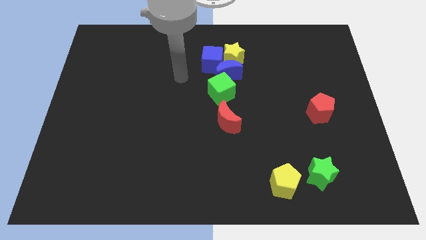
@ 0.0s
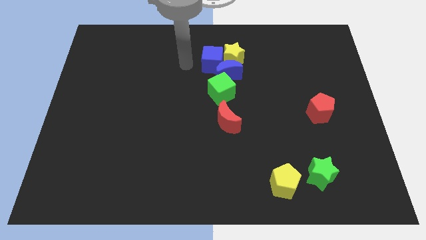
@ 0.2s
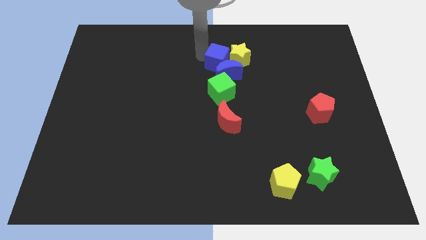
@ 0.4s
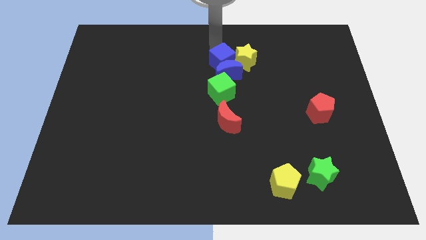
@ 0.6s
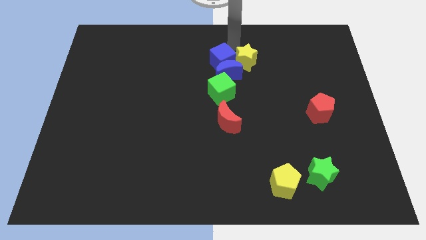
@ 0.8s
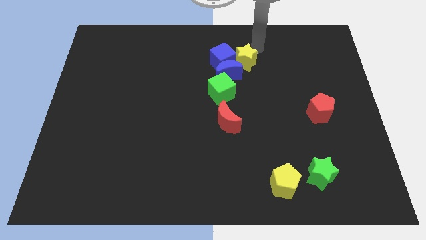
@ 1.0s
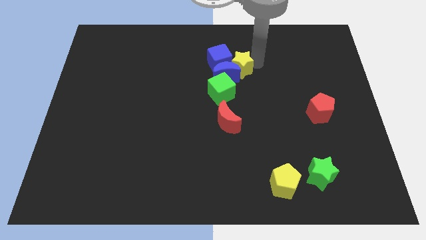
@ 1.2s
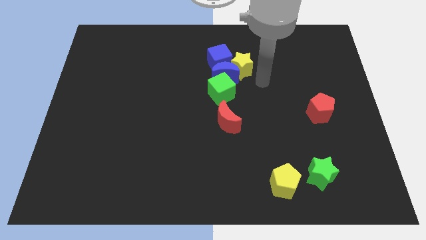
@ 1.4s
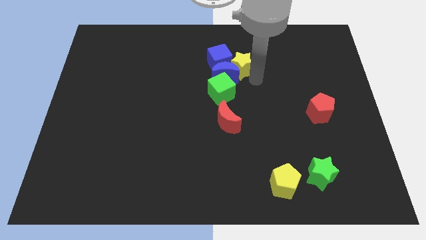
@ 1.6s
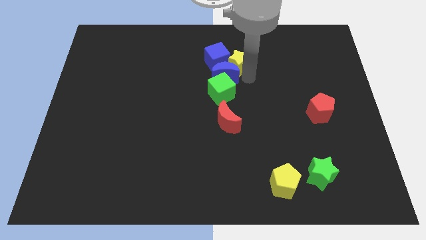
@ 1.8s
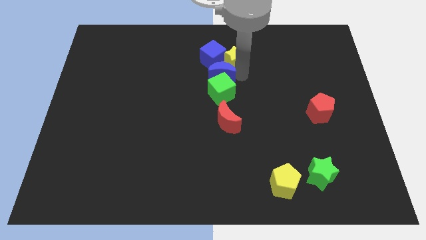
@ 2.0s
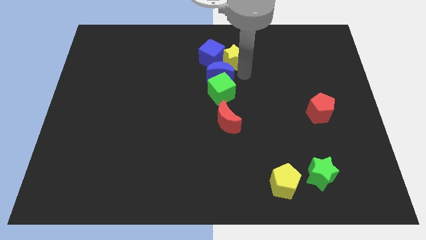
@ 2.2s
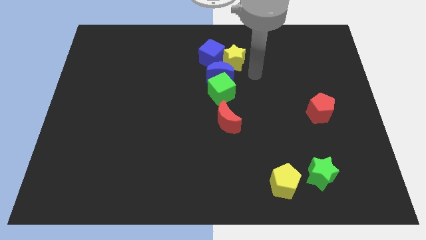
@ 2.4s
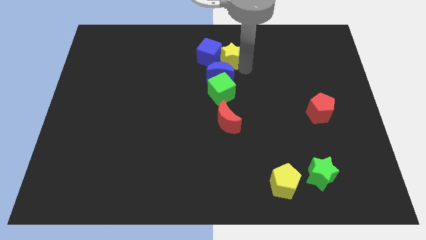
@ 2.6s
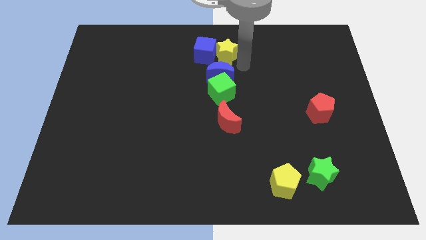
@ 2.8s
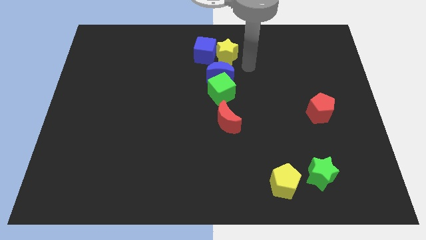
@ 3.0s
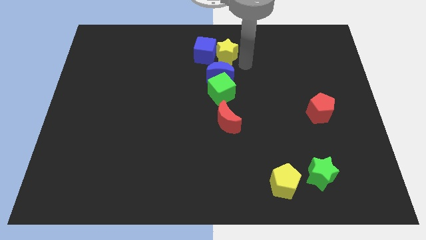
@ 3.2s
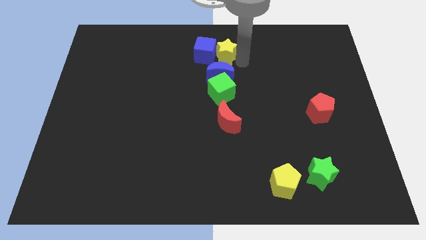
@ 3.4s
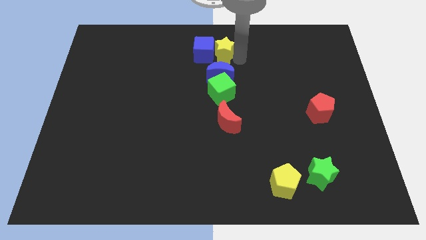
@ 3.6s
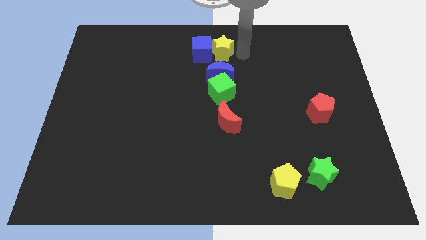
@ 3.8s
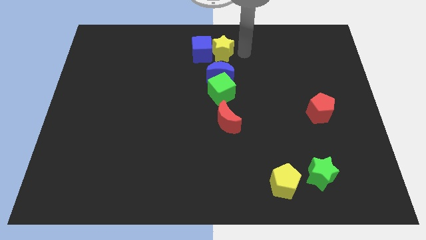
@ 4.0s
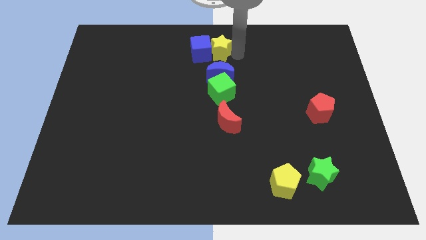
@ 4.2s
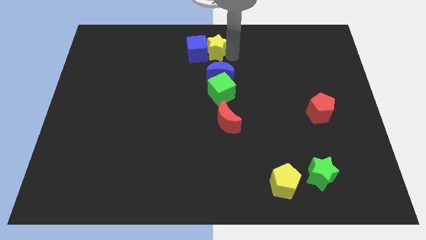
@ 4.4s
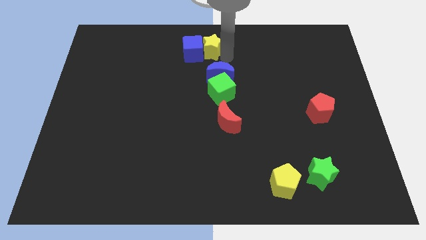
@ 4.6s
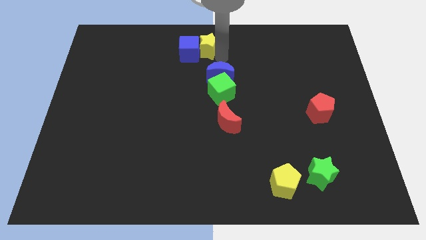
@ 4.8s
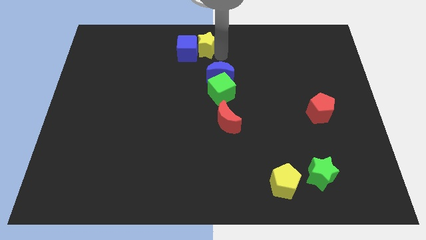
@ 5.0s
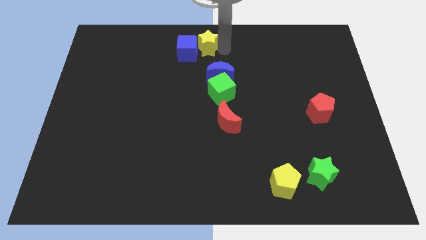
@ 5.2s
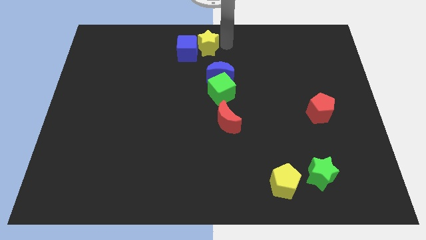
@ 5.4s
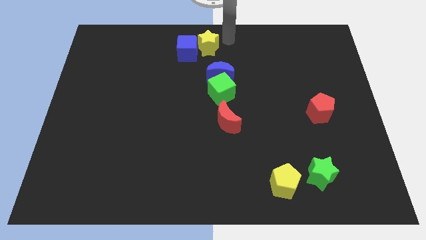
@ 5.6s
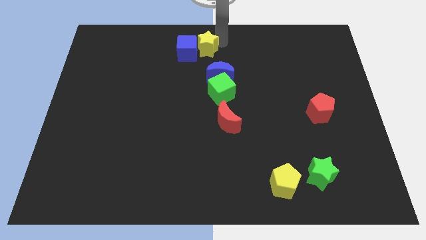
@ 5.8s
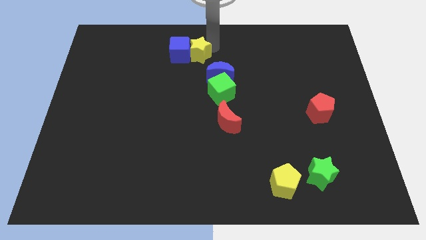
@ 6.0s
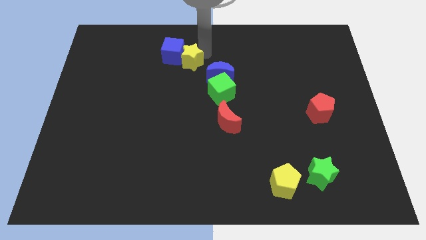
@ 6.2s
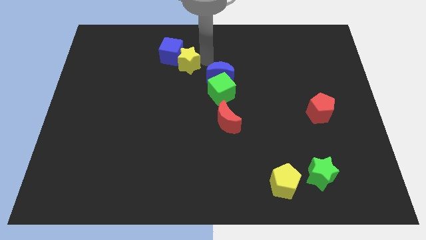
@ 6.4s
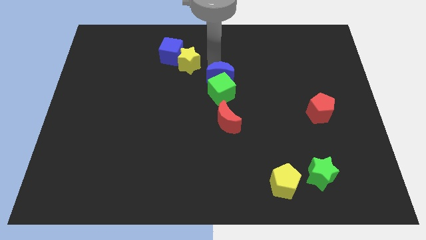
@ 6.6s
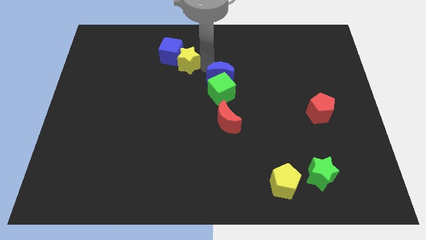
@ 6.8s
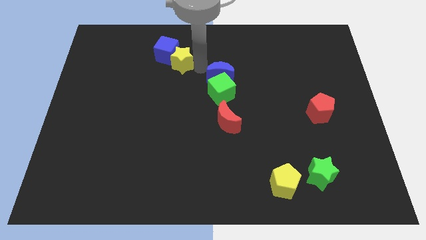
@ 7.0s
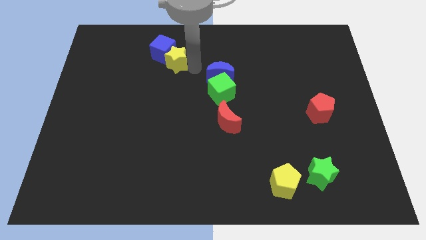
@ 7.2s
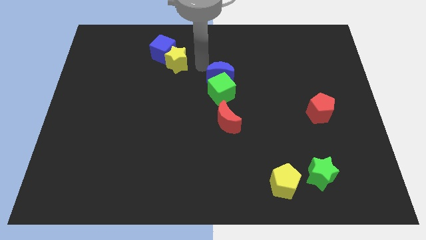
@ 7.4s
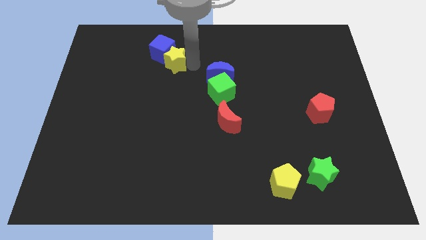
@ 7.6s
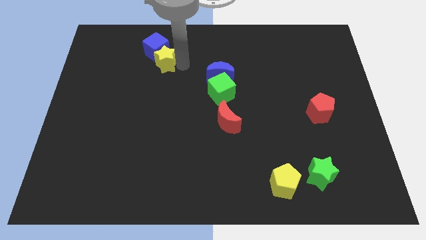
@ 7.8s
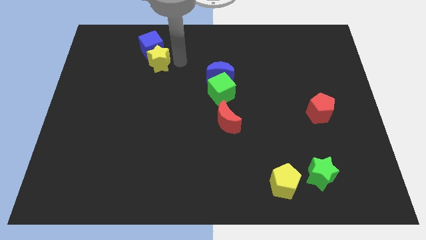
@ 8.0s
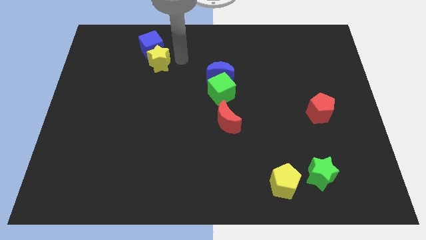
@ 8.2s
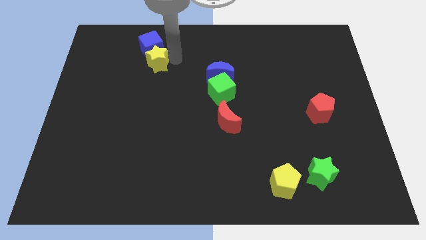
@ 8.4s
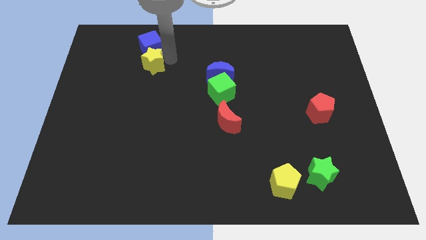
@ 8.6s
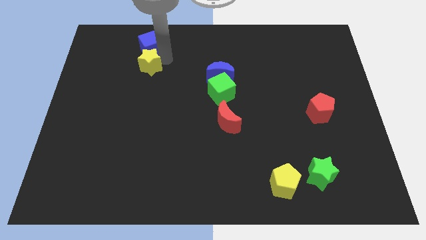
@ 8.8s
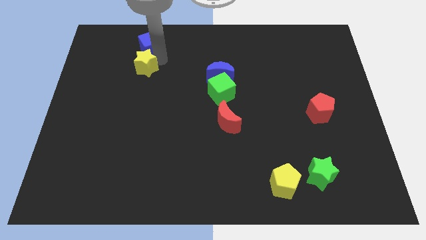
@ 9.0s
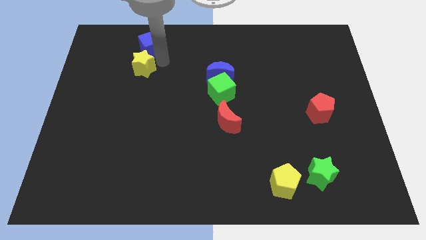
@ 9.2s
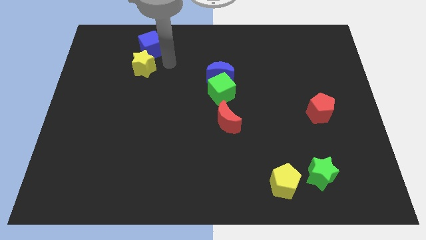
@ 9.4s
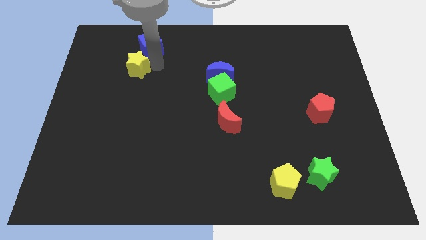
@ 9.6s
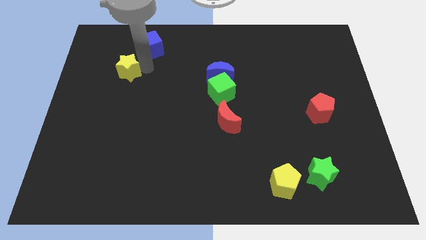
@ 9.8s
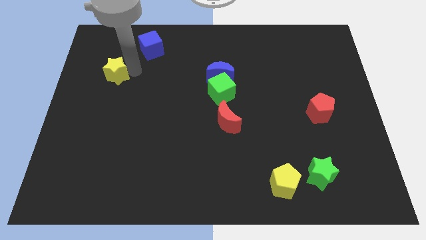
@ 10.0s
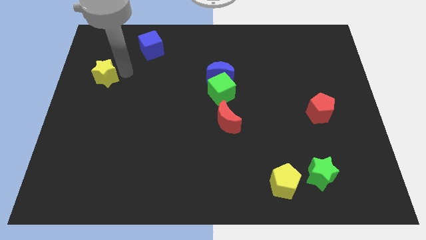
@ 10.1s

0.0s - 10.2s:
put the yellow star to the center left

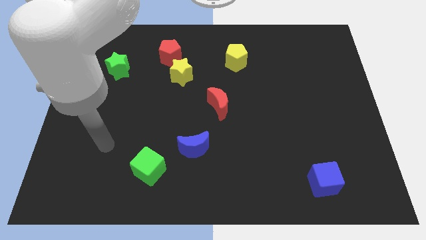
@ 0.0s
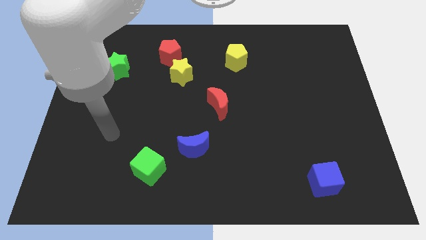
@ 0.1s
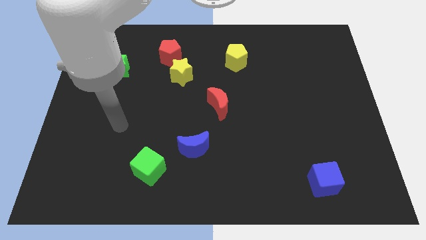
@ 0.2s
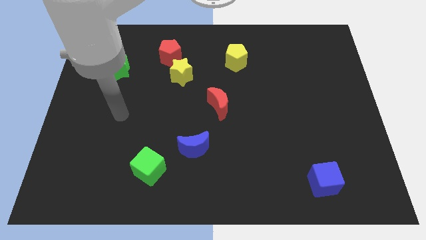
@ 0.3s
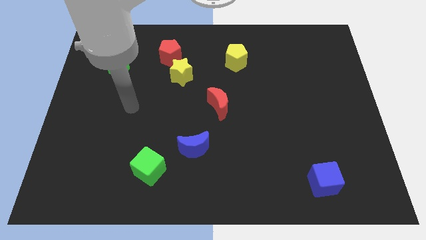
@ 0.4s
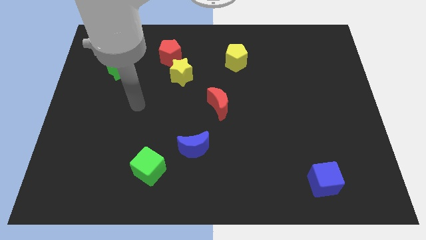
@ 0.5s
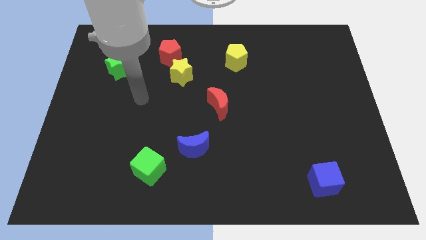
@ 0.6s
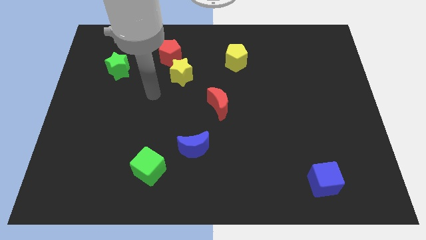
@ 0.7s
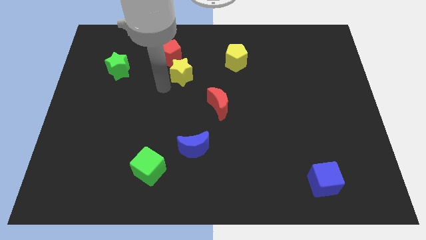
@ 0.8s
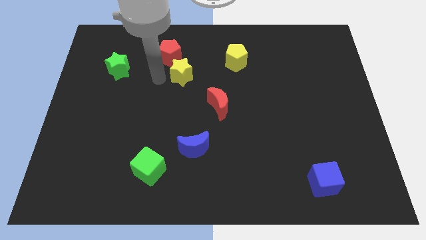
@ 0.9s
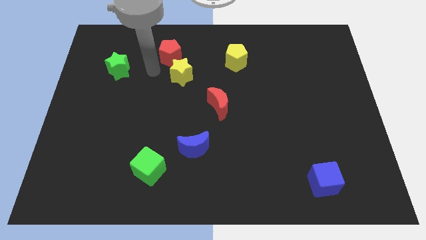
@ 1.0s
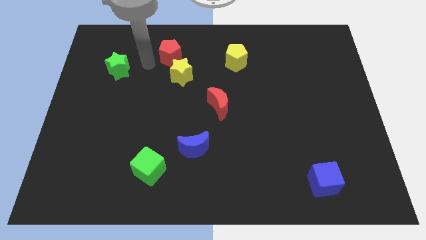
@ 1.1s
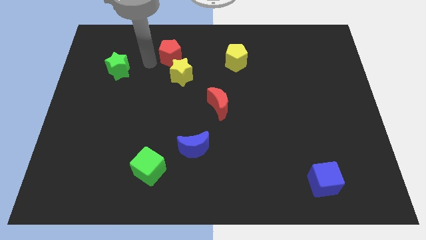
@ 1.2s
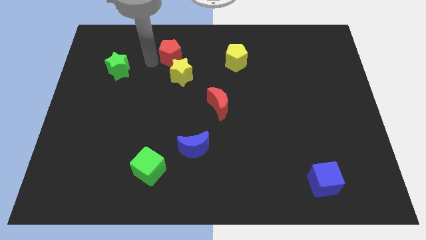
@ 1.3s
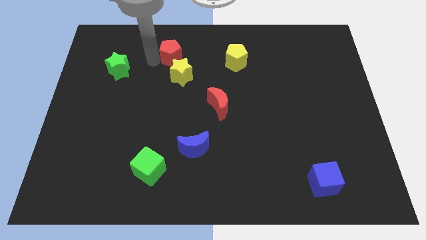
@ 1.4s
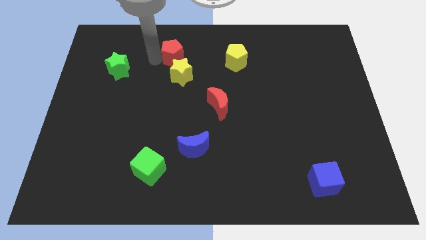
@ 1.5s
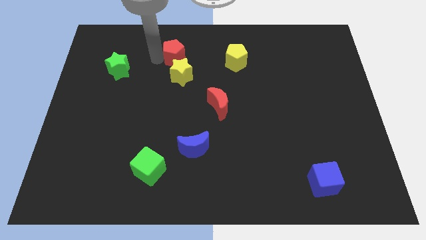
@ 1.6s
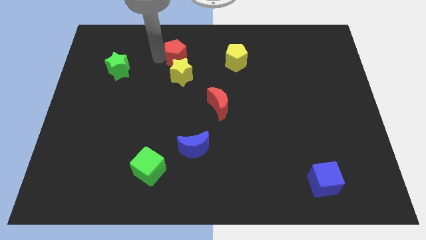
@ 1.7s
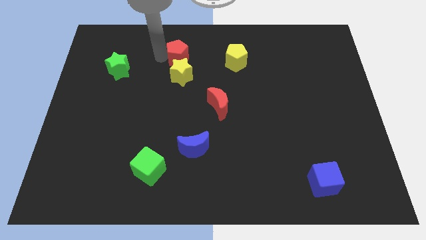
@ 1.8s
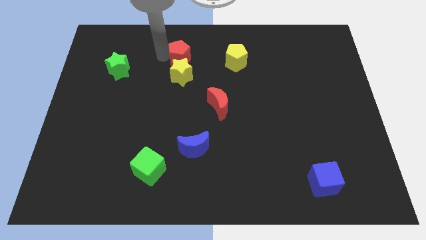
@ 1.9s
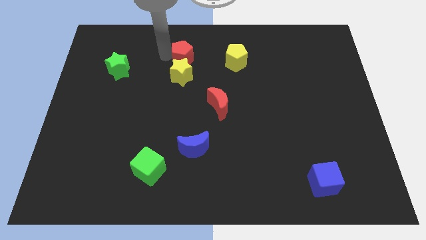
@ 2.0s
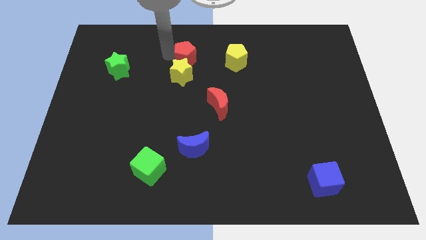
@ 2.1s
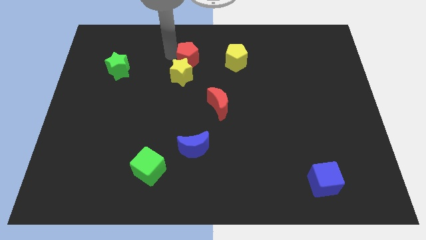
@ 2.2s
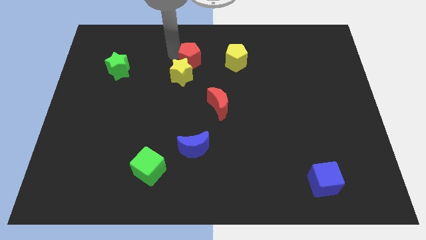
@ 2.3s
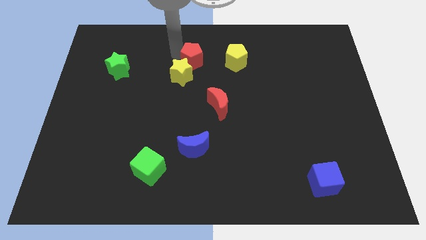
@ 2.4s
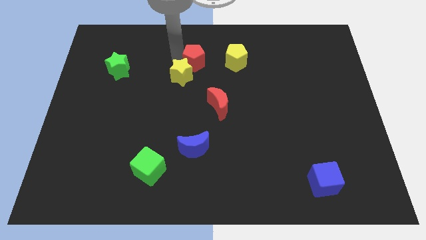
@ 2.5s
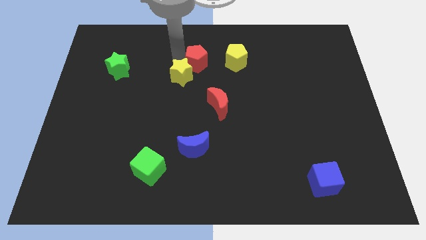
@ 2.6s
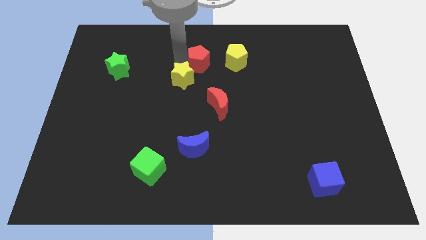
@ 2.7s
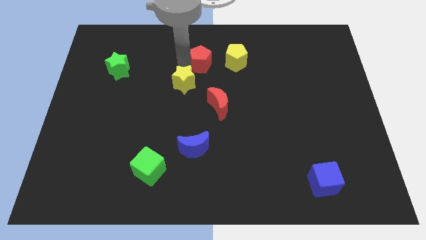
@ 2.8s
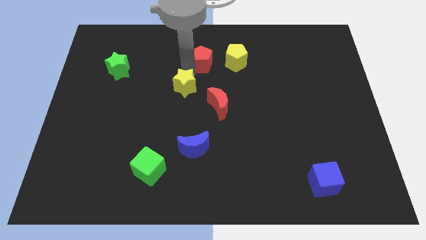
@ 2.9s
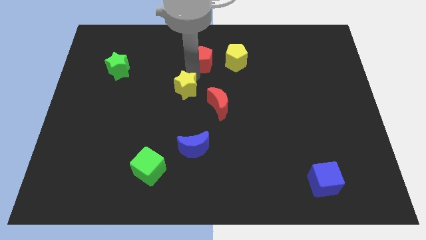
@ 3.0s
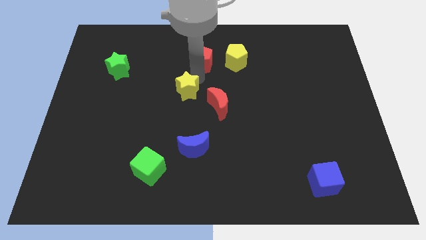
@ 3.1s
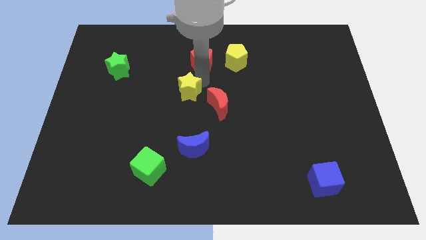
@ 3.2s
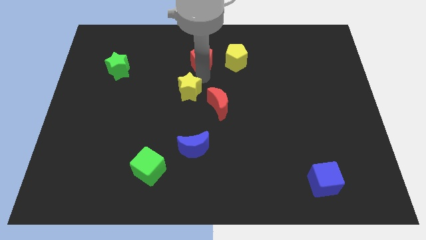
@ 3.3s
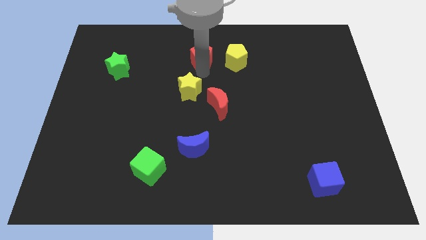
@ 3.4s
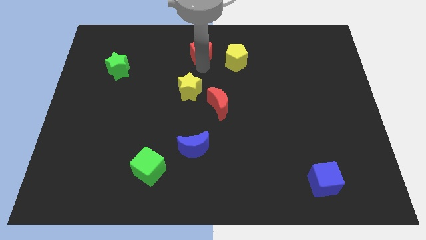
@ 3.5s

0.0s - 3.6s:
move the red pentagon to the top side
